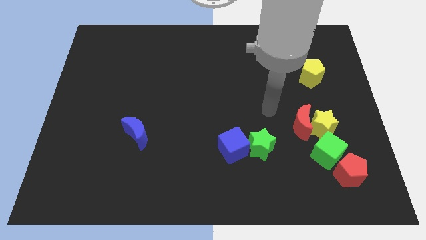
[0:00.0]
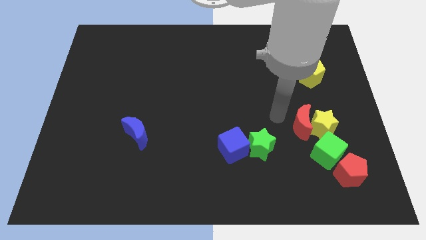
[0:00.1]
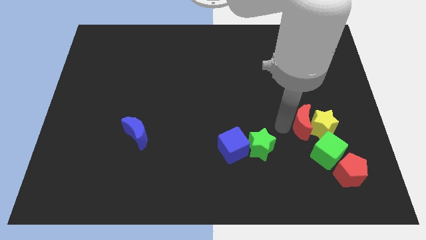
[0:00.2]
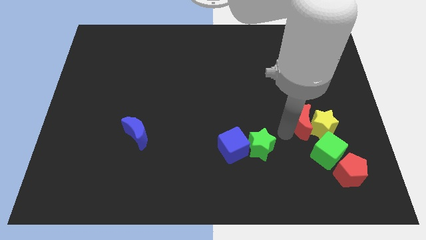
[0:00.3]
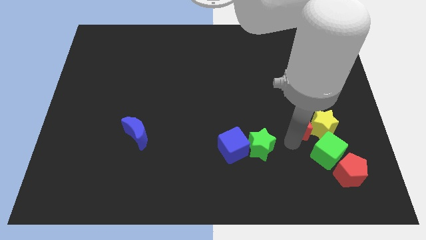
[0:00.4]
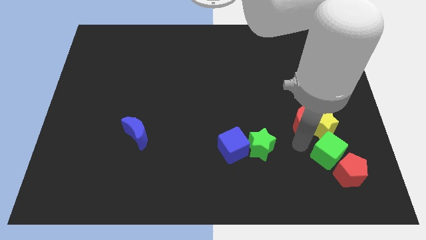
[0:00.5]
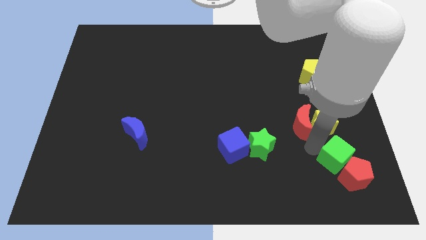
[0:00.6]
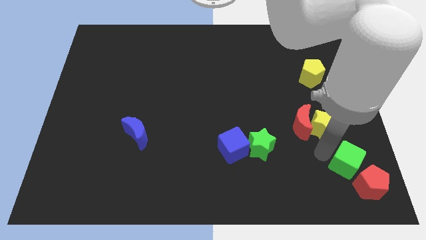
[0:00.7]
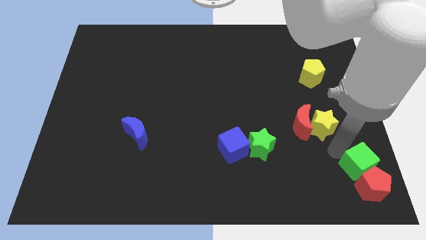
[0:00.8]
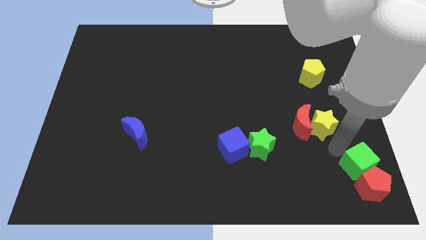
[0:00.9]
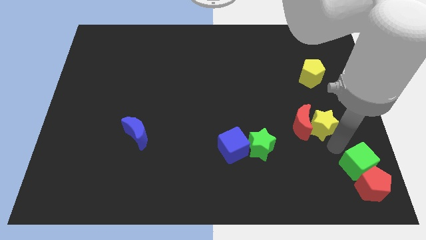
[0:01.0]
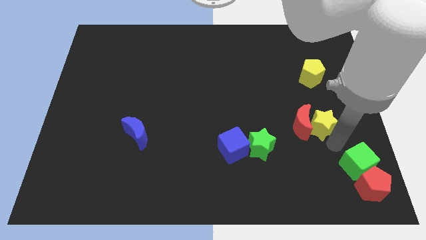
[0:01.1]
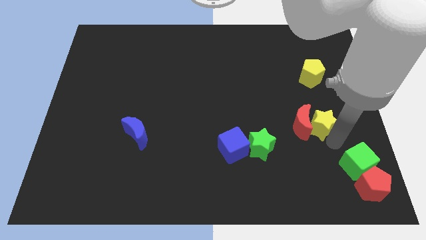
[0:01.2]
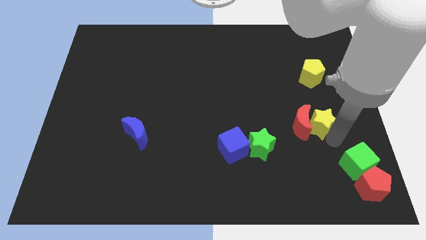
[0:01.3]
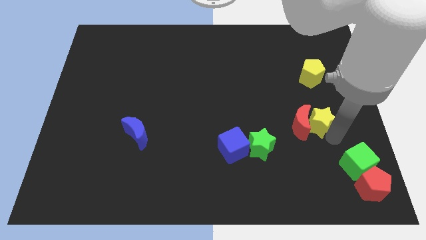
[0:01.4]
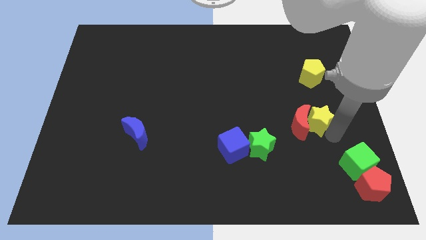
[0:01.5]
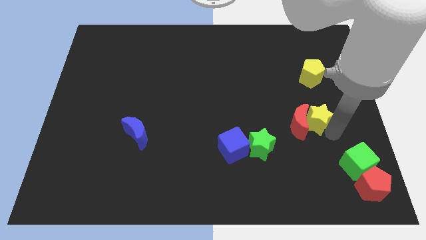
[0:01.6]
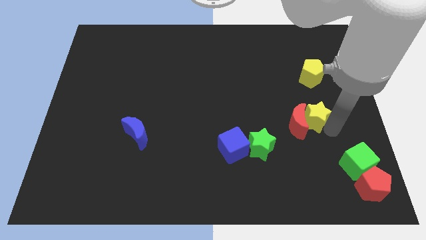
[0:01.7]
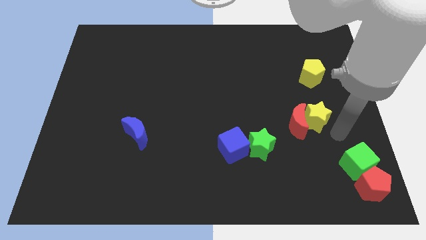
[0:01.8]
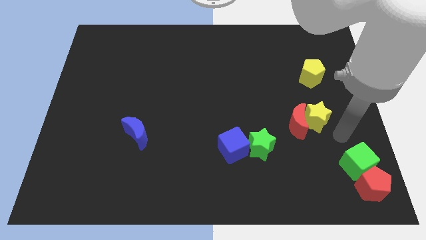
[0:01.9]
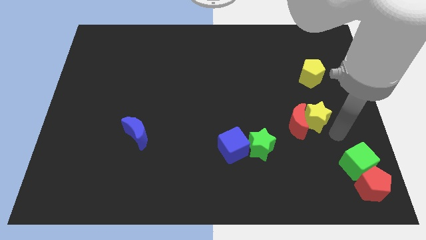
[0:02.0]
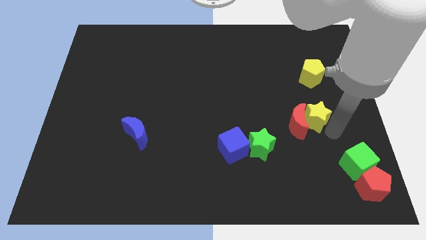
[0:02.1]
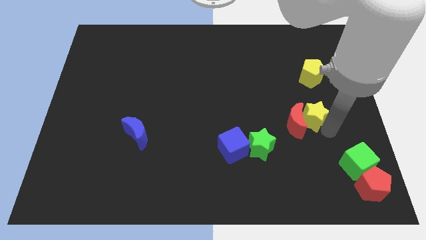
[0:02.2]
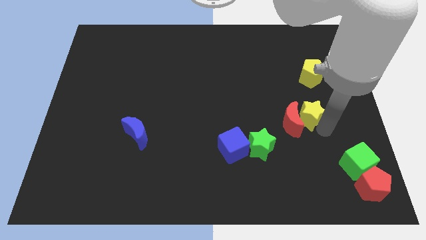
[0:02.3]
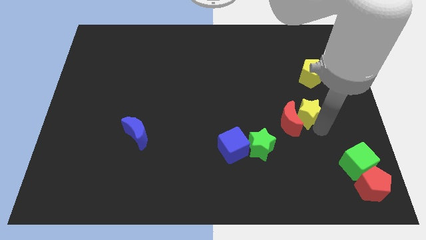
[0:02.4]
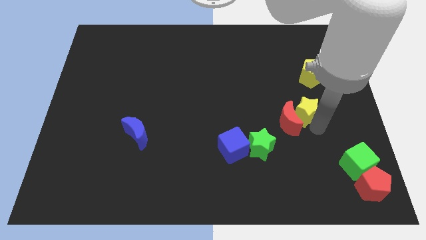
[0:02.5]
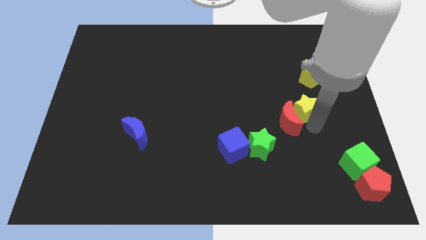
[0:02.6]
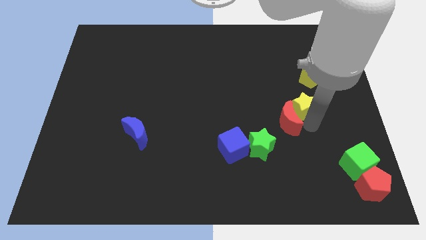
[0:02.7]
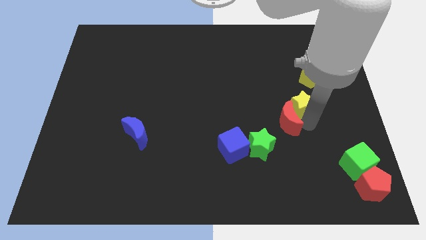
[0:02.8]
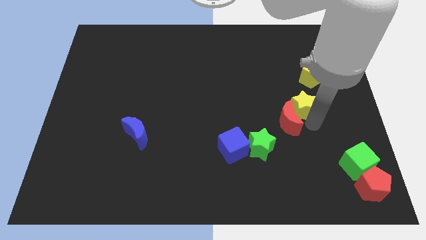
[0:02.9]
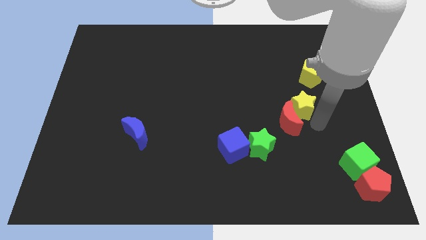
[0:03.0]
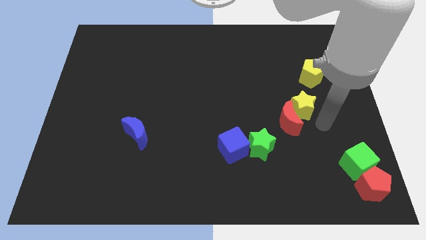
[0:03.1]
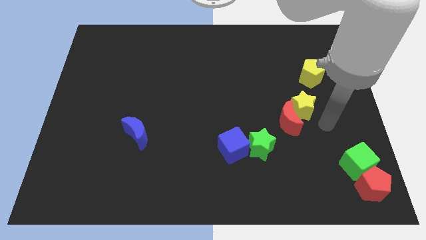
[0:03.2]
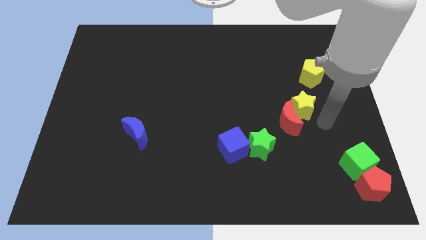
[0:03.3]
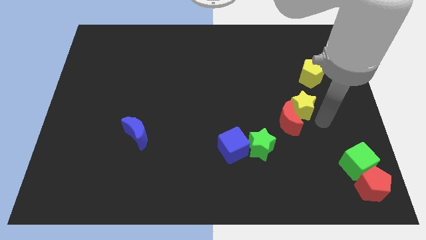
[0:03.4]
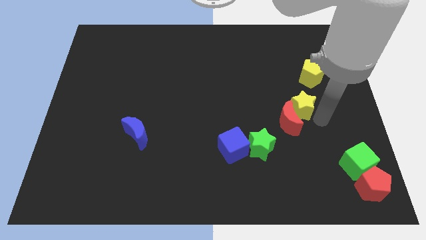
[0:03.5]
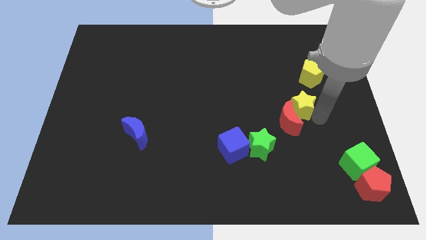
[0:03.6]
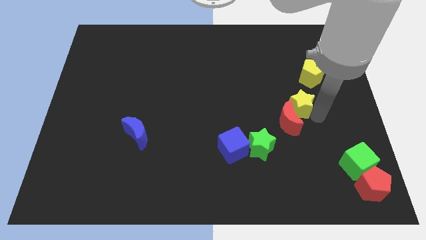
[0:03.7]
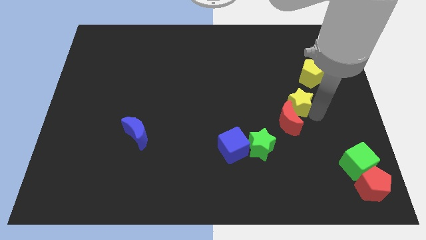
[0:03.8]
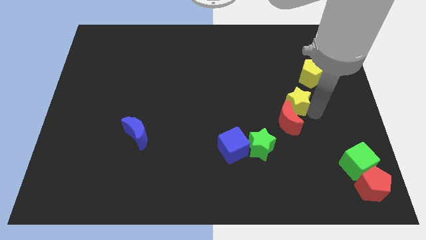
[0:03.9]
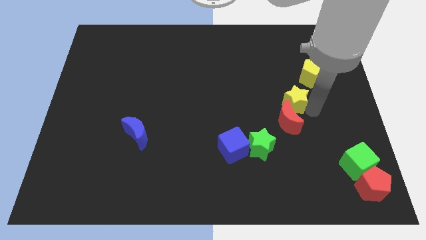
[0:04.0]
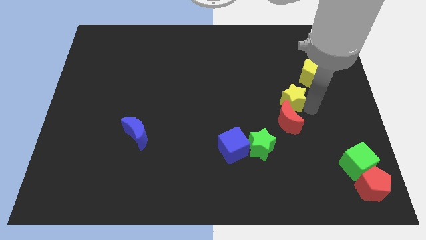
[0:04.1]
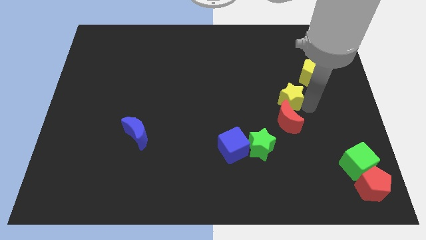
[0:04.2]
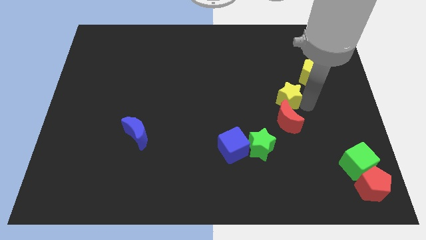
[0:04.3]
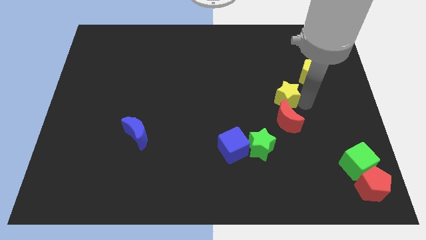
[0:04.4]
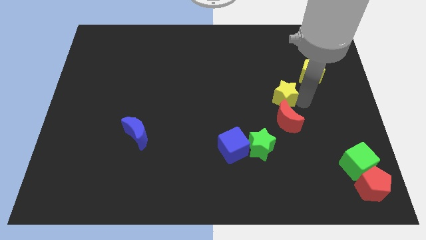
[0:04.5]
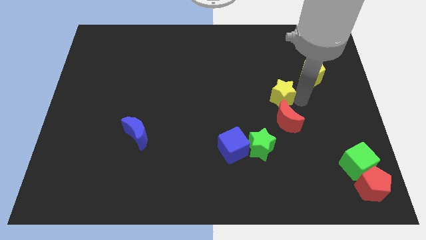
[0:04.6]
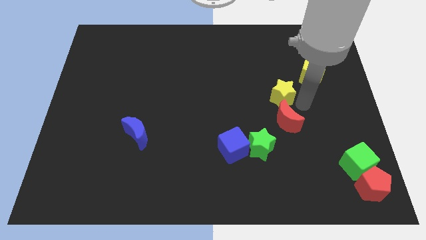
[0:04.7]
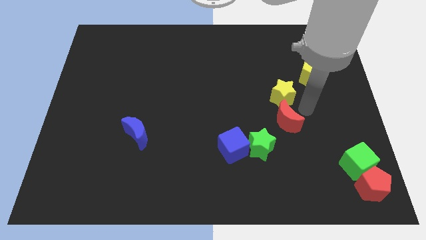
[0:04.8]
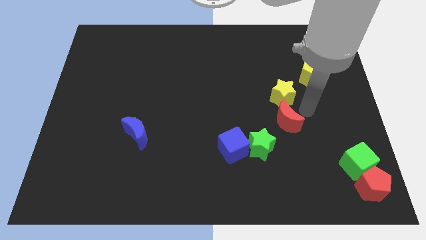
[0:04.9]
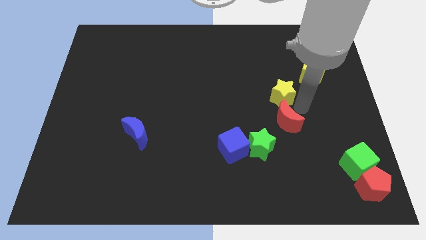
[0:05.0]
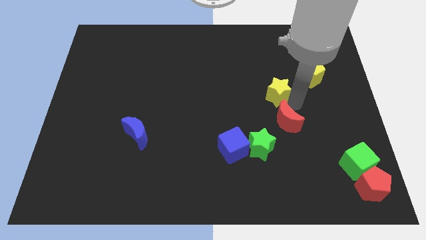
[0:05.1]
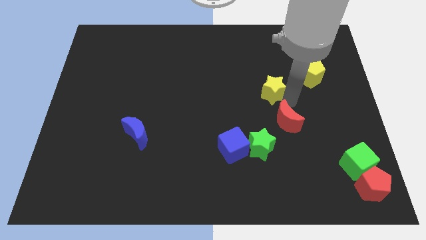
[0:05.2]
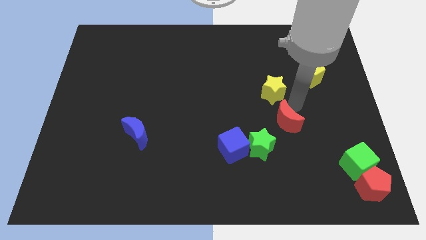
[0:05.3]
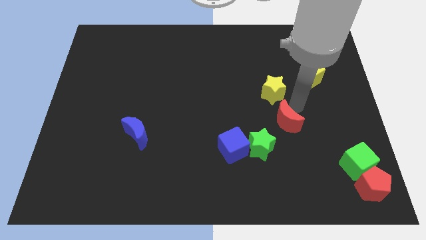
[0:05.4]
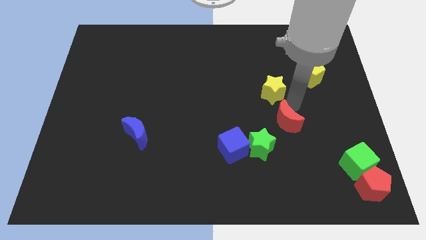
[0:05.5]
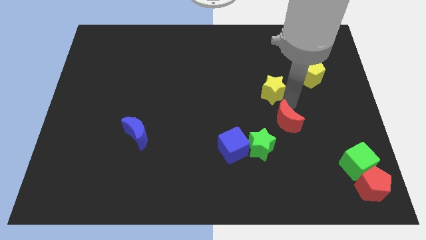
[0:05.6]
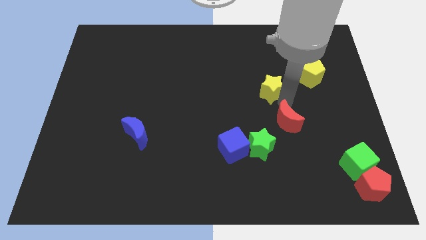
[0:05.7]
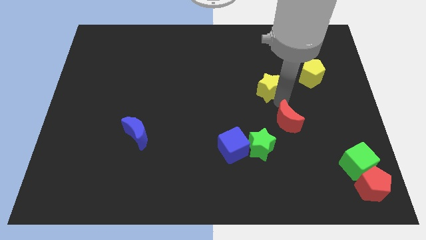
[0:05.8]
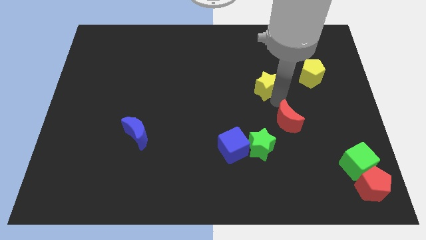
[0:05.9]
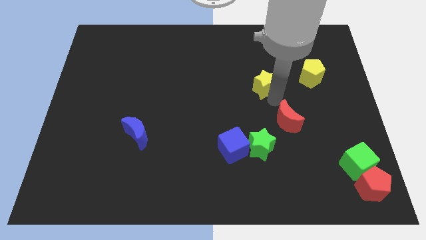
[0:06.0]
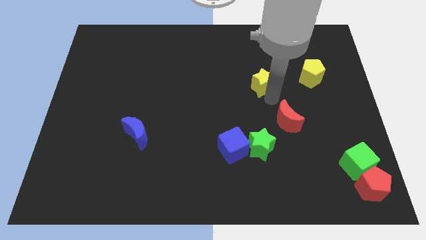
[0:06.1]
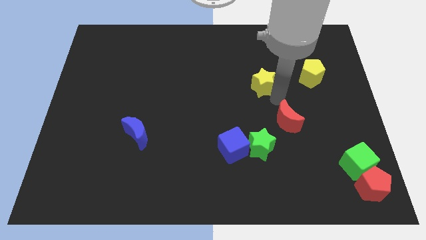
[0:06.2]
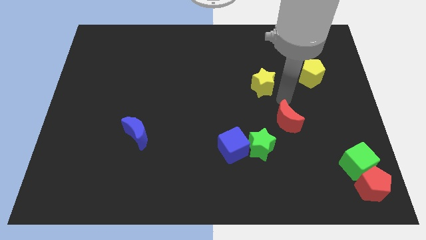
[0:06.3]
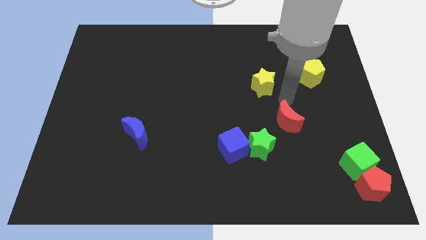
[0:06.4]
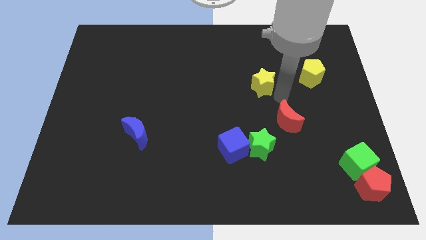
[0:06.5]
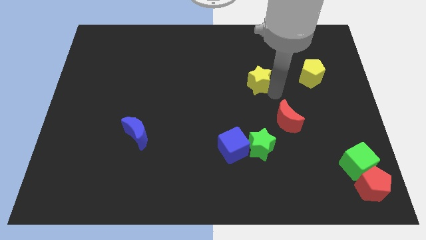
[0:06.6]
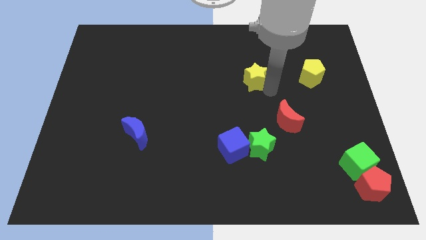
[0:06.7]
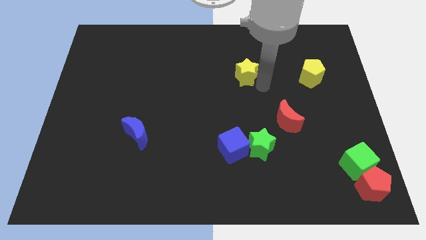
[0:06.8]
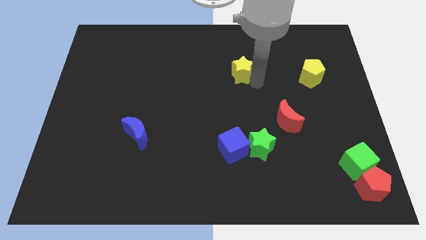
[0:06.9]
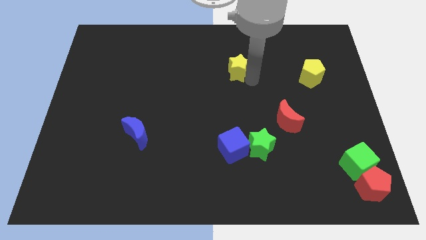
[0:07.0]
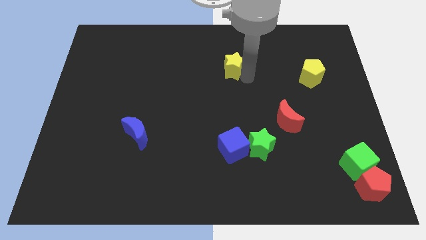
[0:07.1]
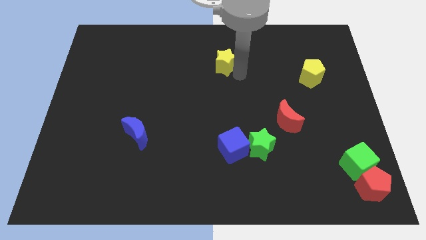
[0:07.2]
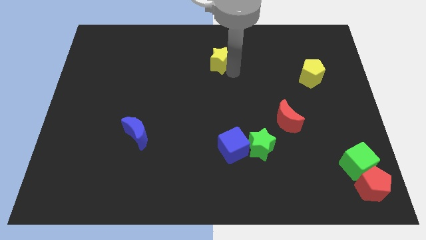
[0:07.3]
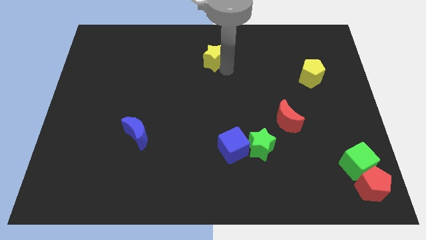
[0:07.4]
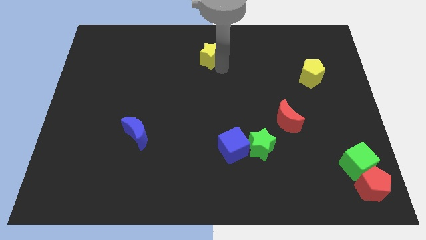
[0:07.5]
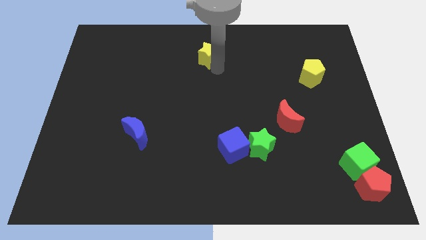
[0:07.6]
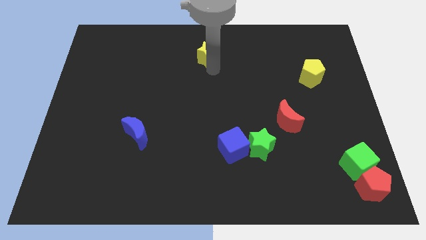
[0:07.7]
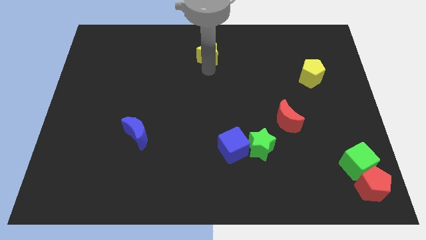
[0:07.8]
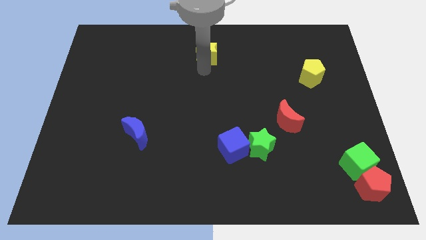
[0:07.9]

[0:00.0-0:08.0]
move the yellow star to the top side
